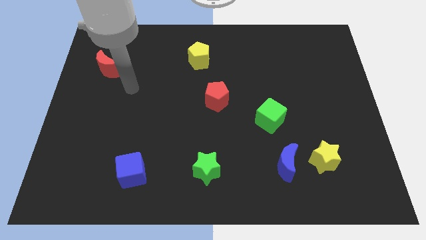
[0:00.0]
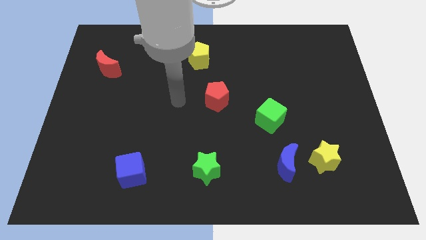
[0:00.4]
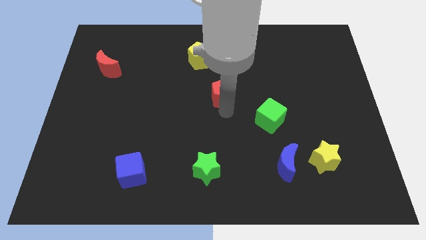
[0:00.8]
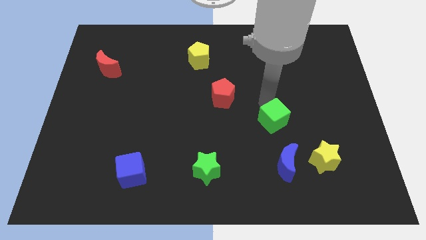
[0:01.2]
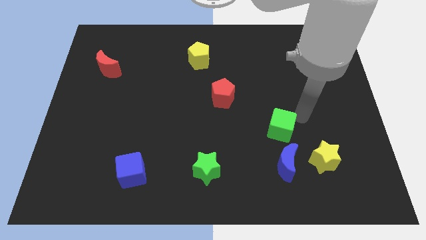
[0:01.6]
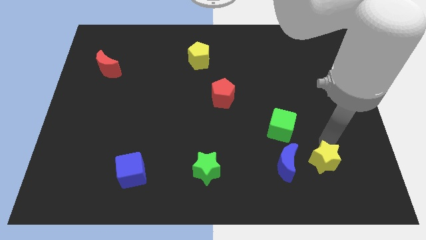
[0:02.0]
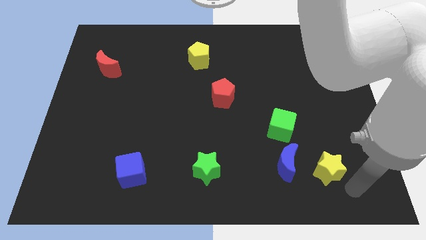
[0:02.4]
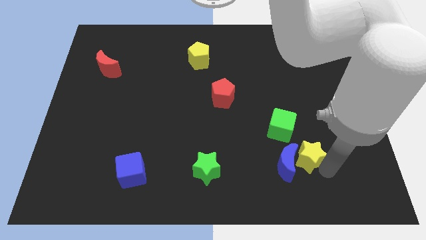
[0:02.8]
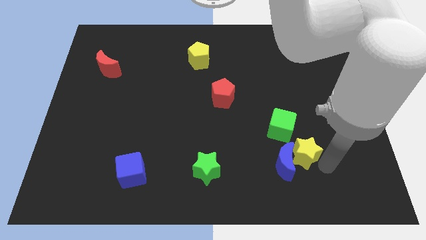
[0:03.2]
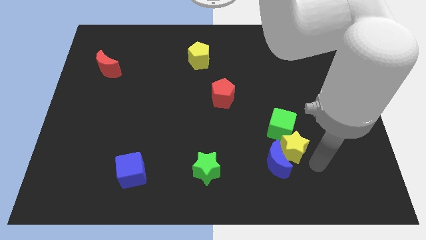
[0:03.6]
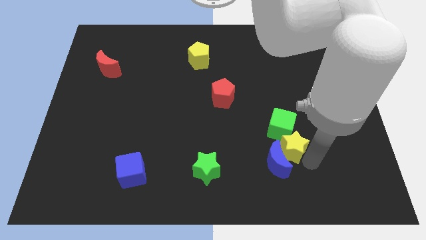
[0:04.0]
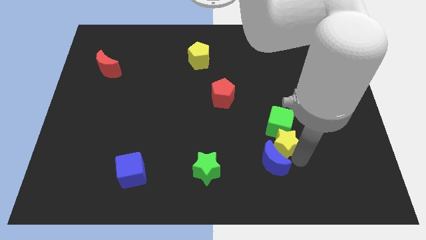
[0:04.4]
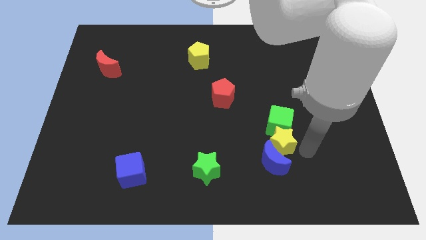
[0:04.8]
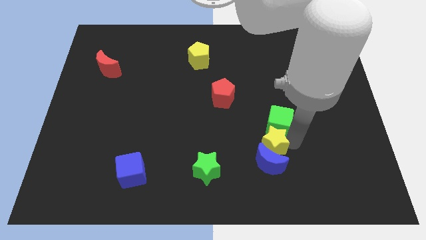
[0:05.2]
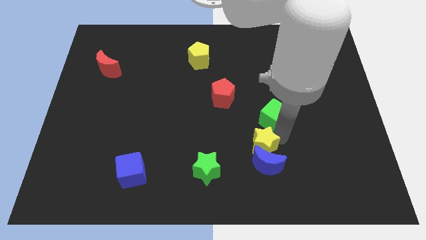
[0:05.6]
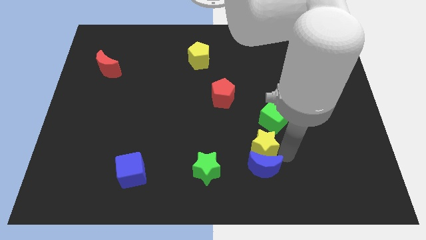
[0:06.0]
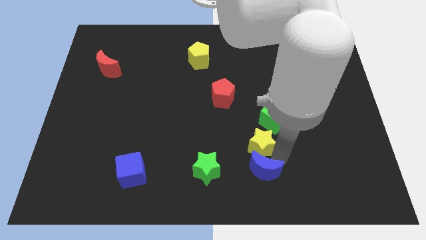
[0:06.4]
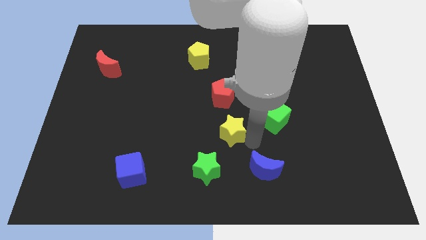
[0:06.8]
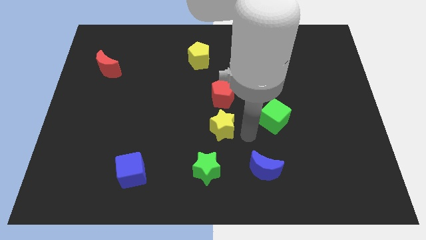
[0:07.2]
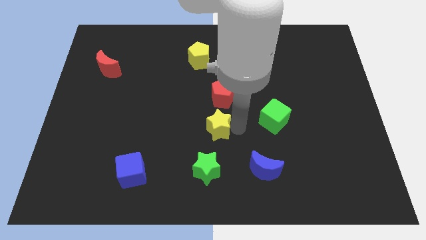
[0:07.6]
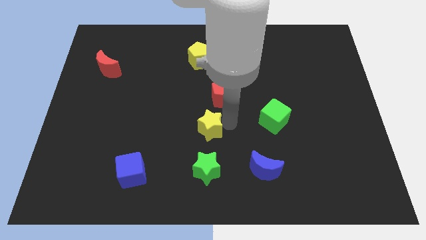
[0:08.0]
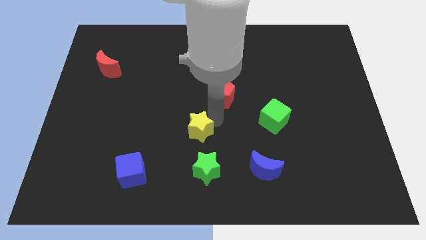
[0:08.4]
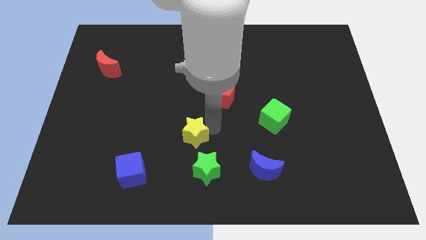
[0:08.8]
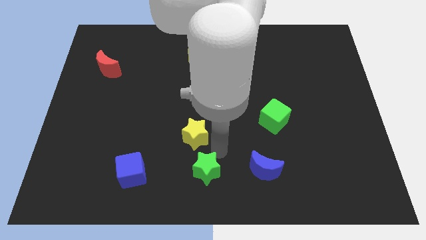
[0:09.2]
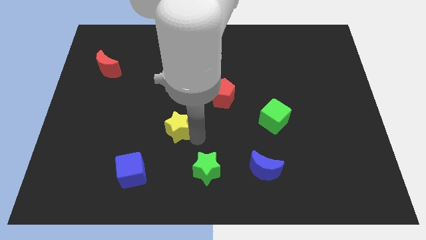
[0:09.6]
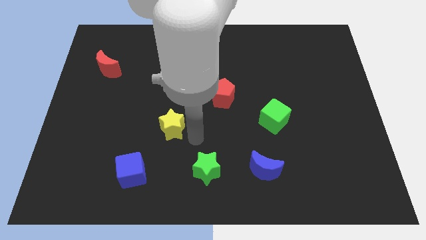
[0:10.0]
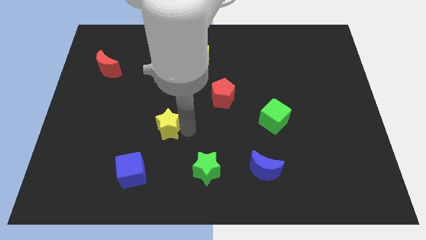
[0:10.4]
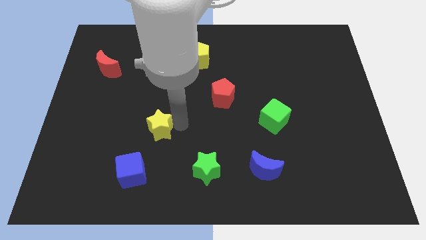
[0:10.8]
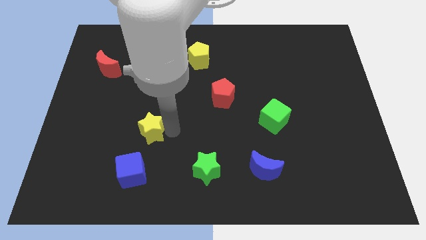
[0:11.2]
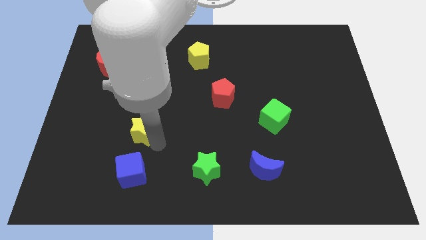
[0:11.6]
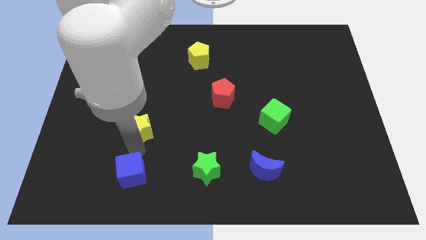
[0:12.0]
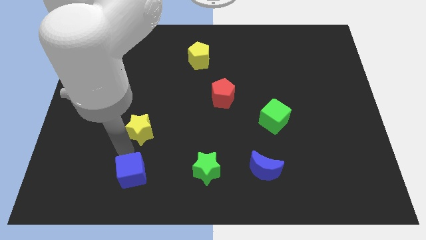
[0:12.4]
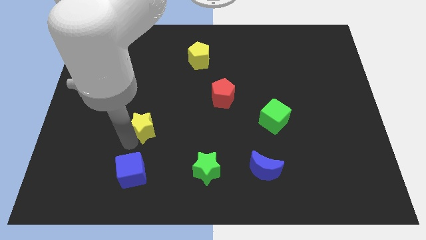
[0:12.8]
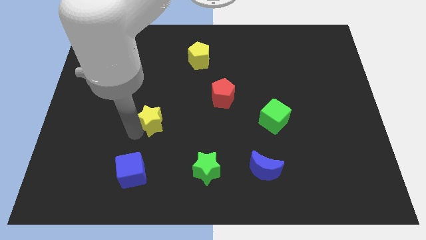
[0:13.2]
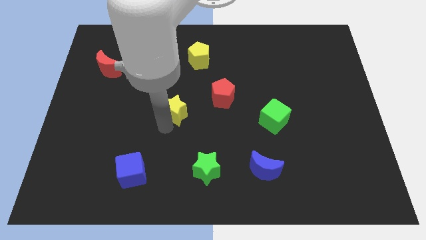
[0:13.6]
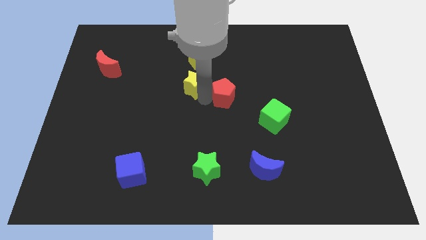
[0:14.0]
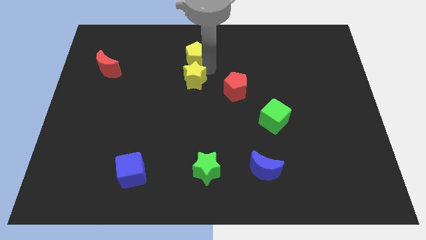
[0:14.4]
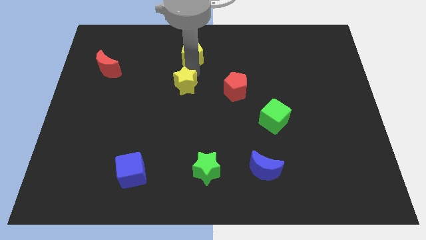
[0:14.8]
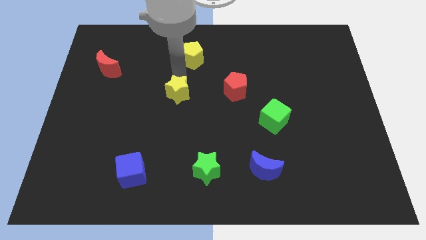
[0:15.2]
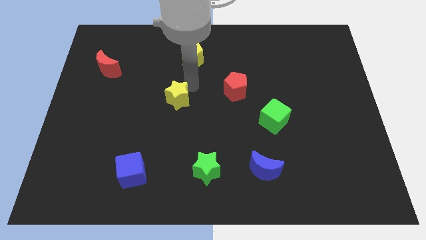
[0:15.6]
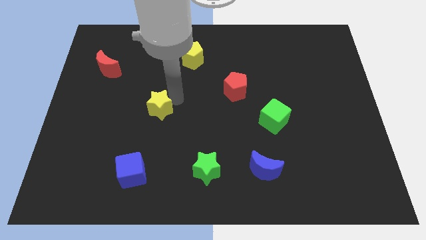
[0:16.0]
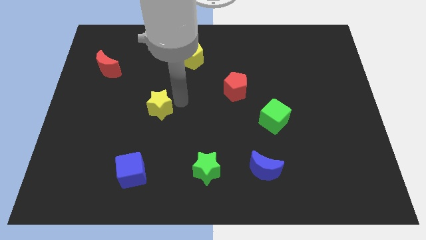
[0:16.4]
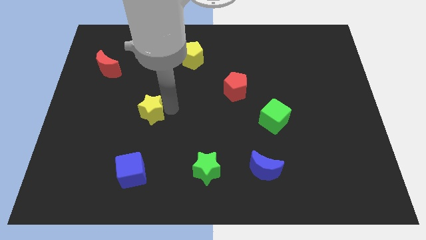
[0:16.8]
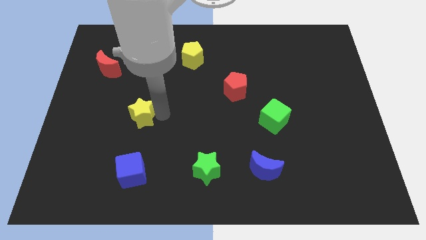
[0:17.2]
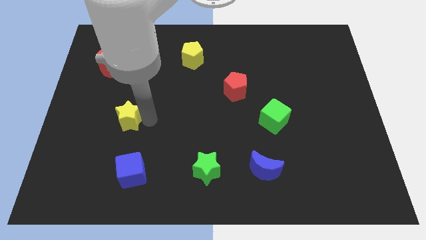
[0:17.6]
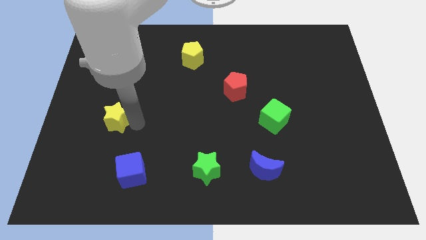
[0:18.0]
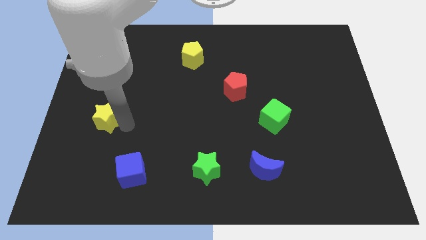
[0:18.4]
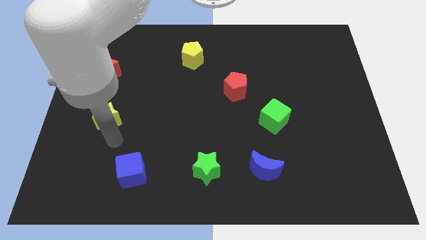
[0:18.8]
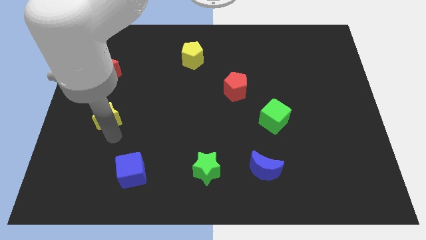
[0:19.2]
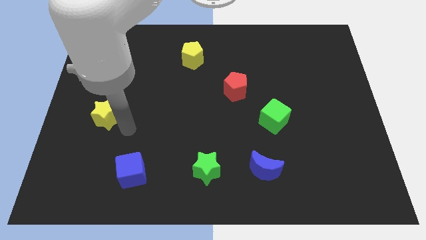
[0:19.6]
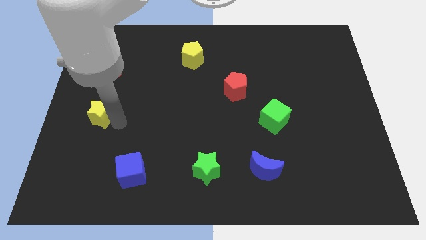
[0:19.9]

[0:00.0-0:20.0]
push the yellow star to the center left

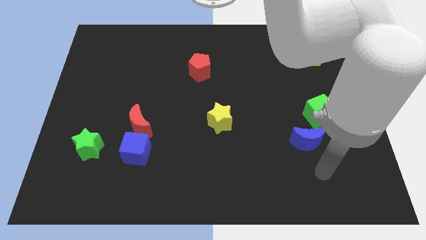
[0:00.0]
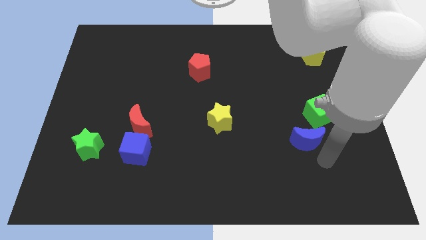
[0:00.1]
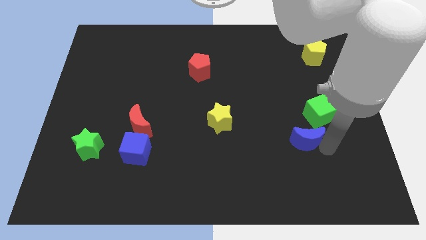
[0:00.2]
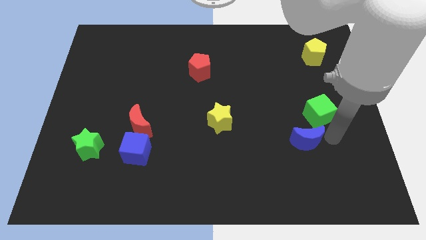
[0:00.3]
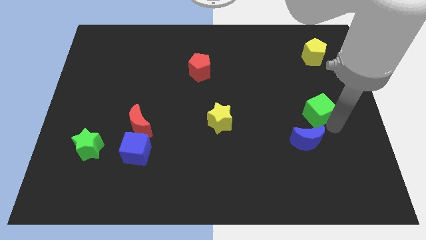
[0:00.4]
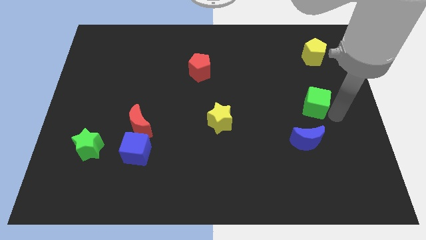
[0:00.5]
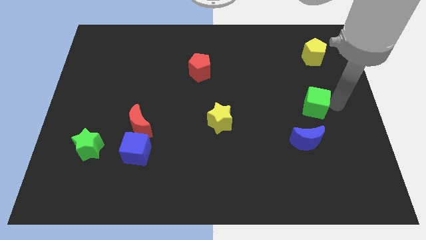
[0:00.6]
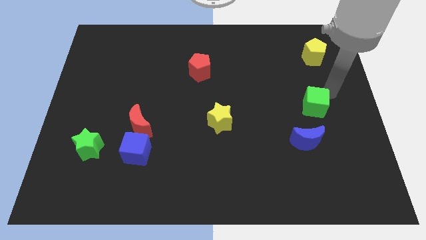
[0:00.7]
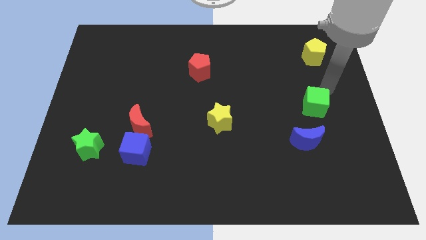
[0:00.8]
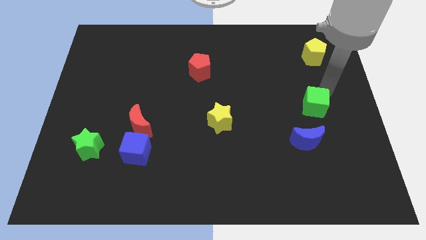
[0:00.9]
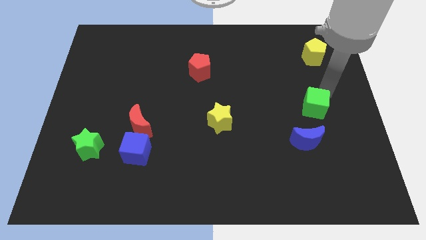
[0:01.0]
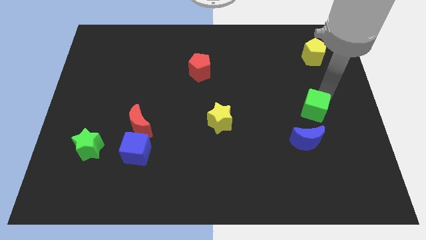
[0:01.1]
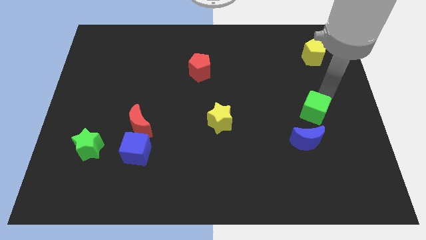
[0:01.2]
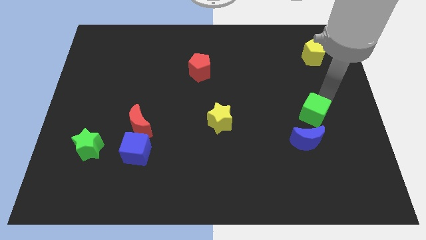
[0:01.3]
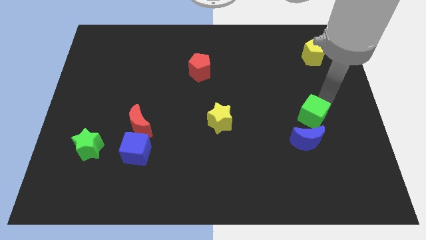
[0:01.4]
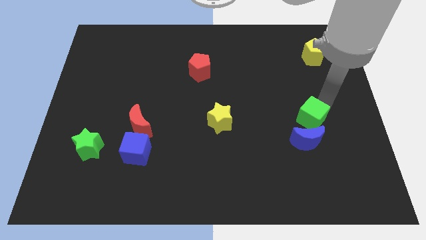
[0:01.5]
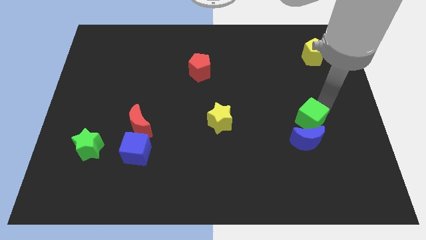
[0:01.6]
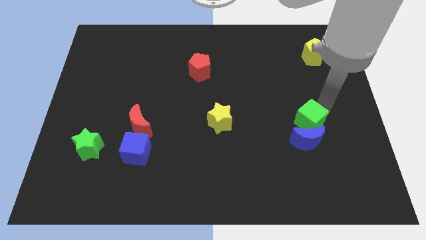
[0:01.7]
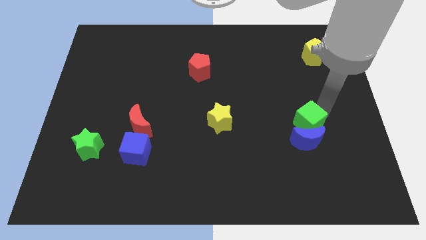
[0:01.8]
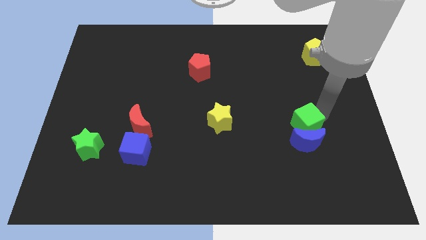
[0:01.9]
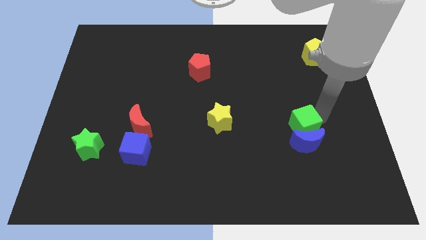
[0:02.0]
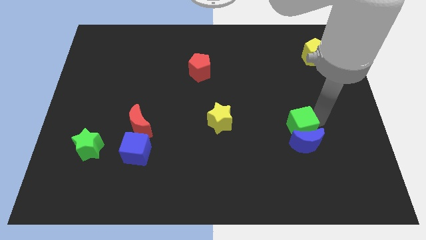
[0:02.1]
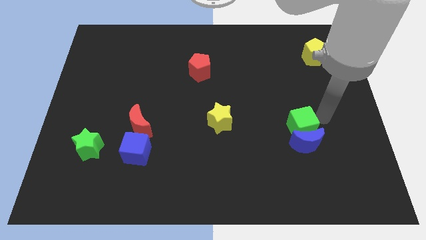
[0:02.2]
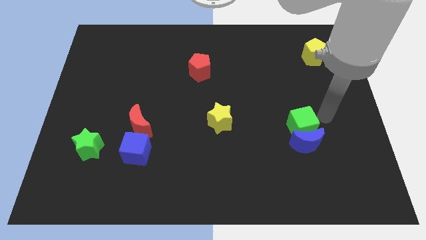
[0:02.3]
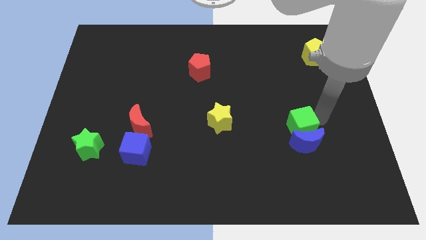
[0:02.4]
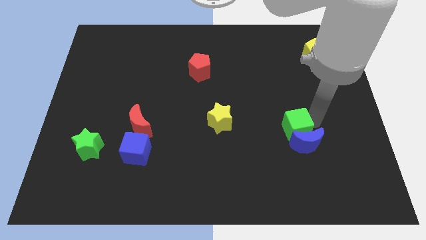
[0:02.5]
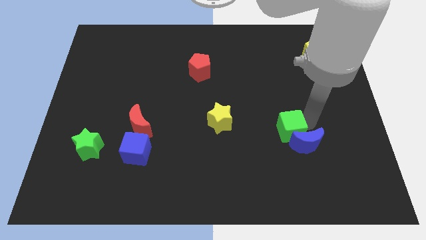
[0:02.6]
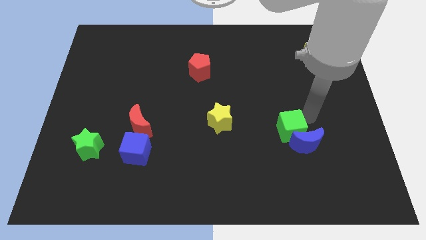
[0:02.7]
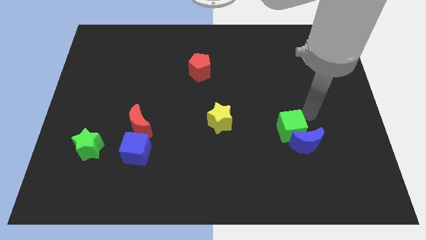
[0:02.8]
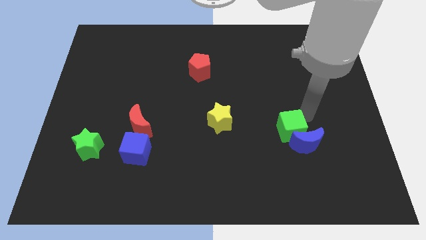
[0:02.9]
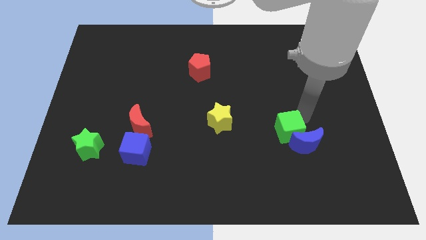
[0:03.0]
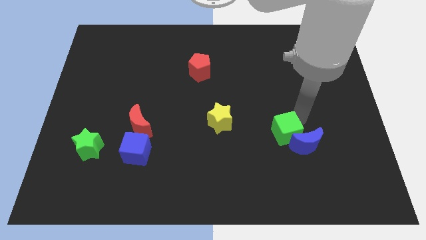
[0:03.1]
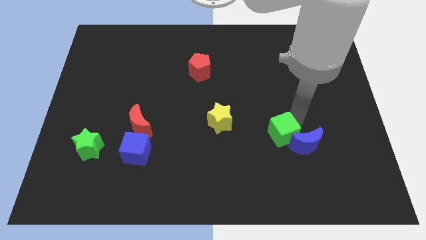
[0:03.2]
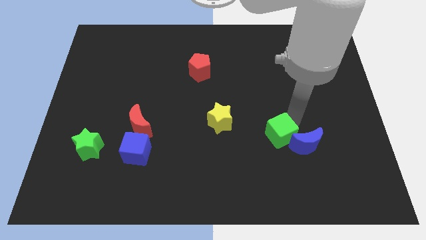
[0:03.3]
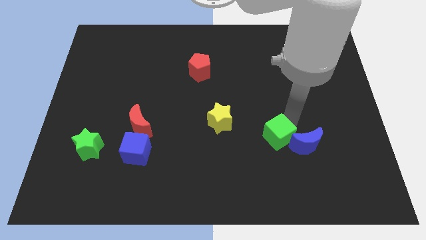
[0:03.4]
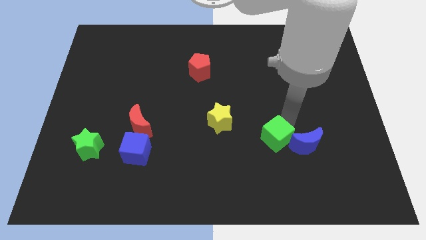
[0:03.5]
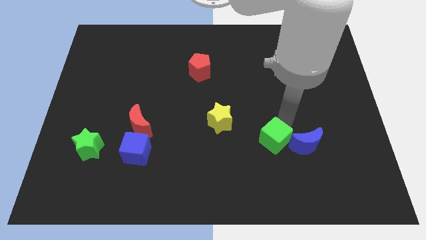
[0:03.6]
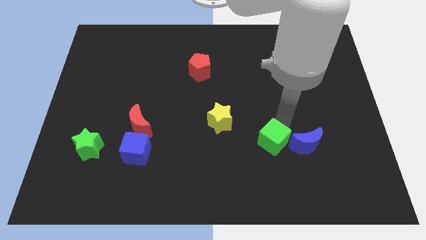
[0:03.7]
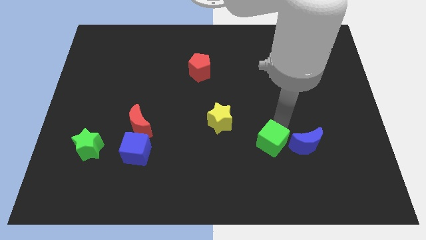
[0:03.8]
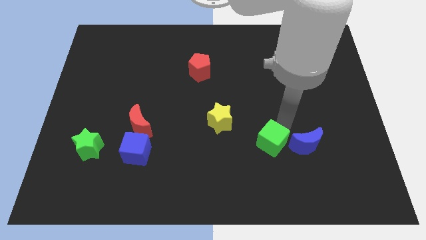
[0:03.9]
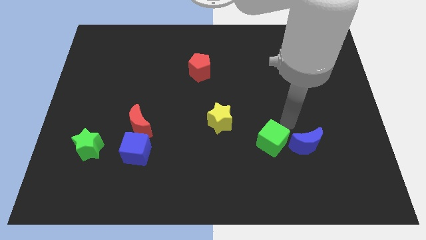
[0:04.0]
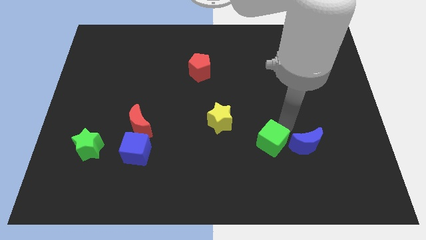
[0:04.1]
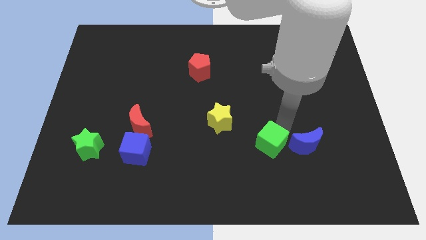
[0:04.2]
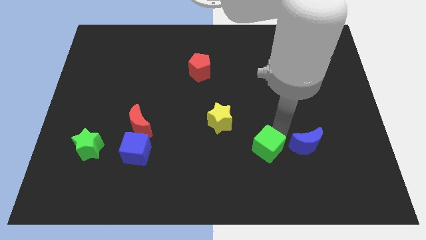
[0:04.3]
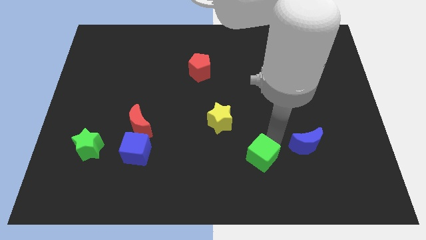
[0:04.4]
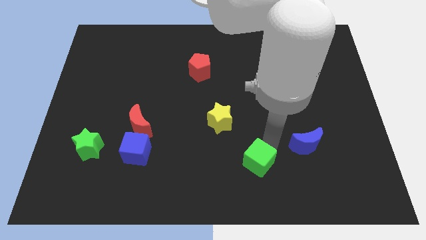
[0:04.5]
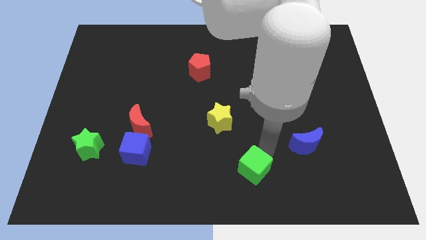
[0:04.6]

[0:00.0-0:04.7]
move the green cube to the bottom side
